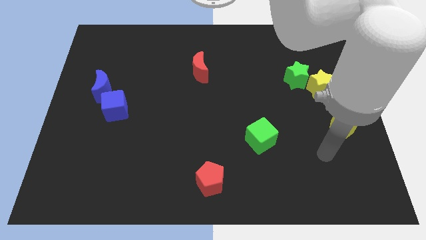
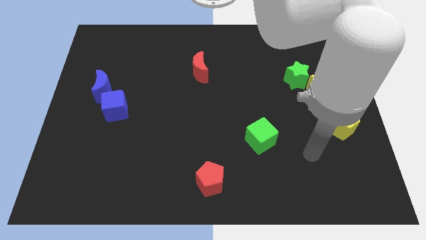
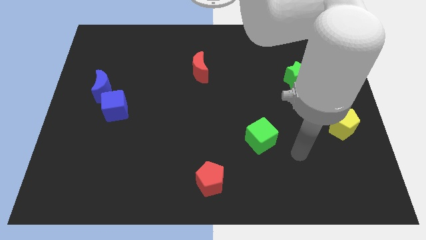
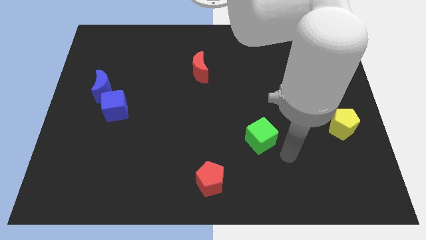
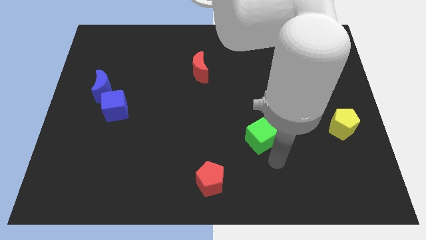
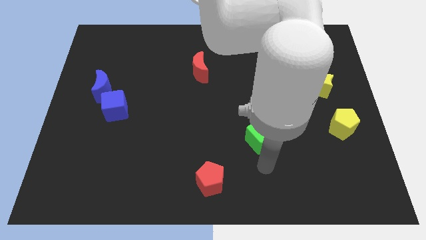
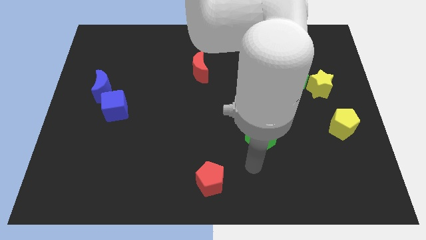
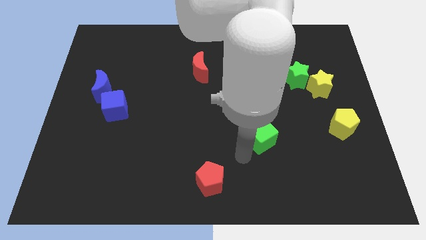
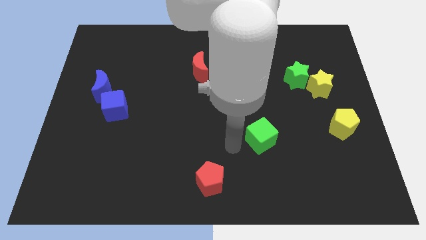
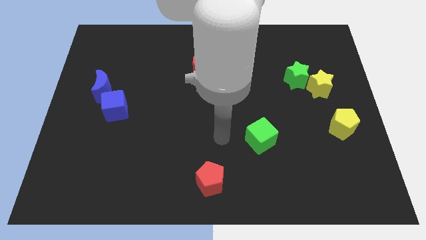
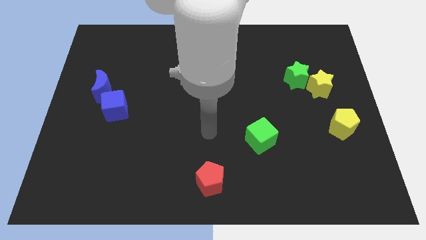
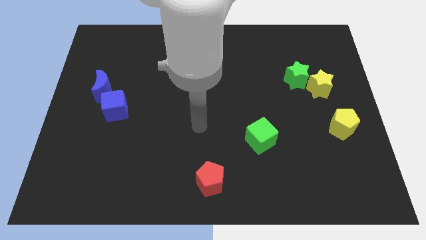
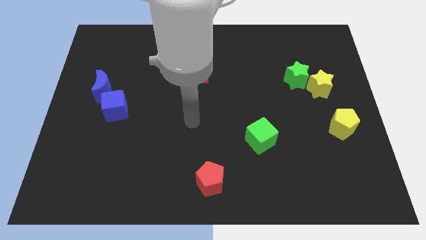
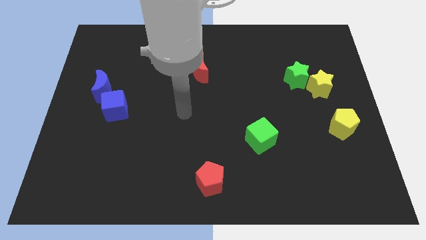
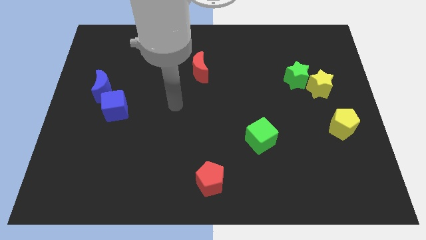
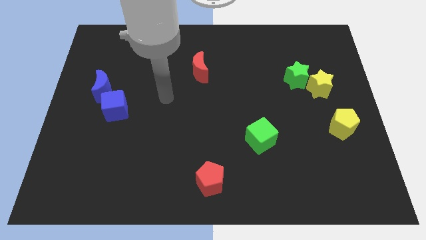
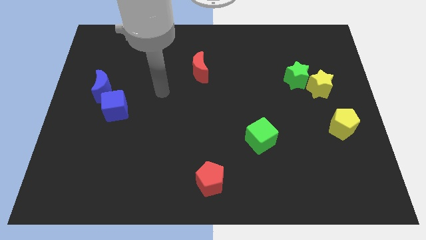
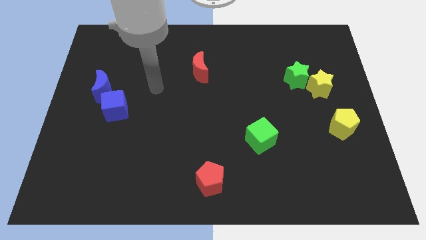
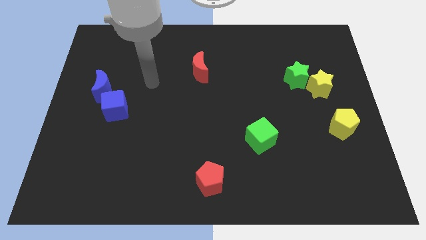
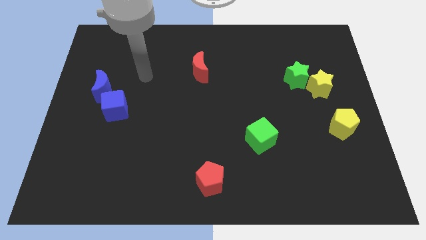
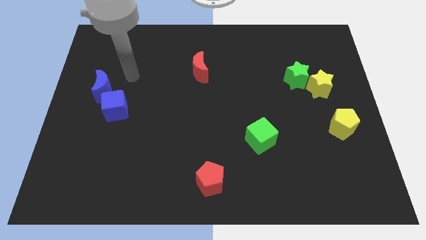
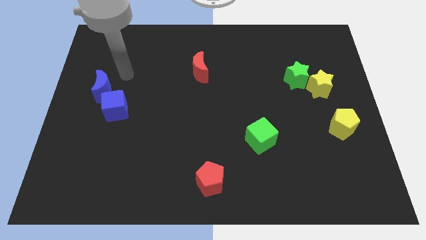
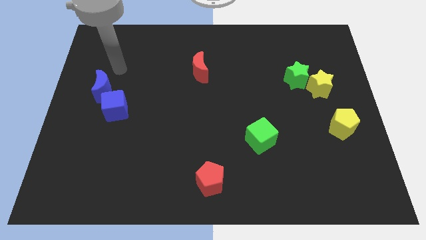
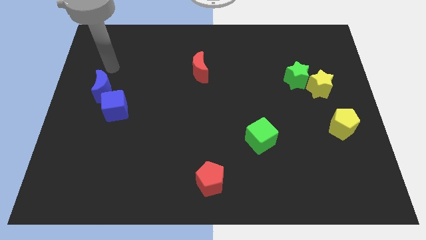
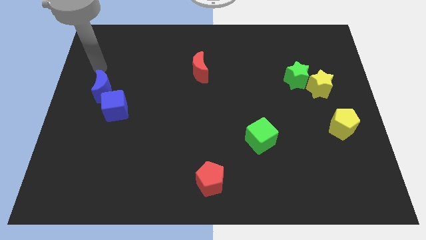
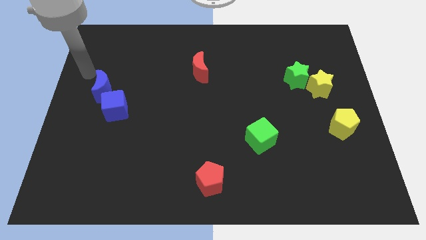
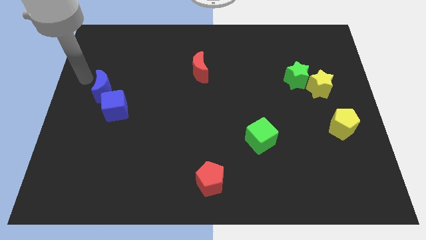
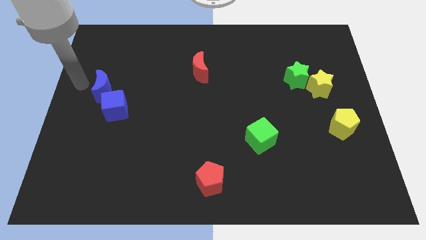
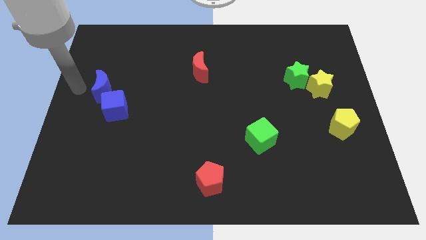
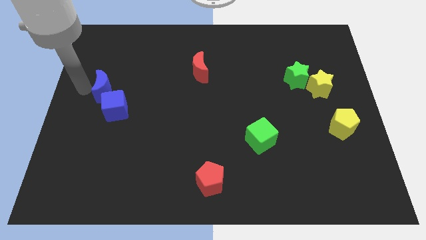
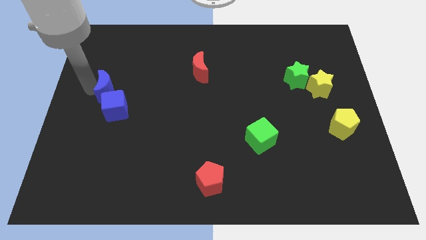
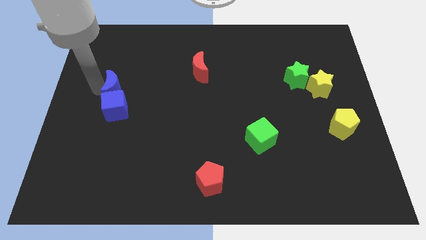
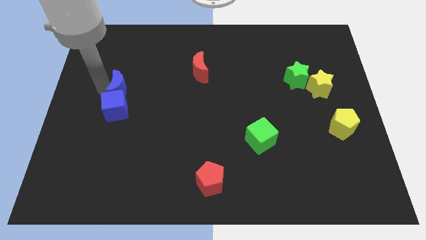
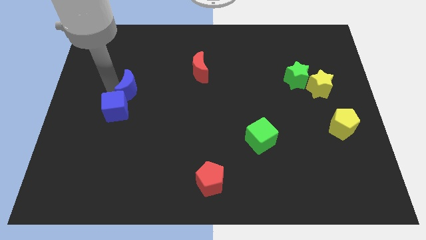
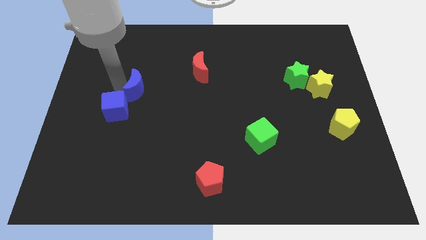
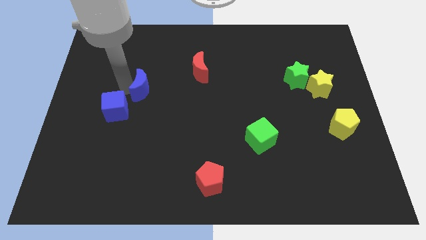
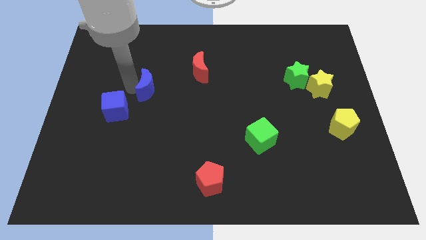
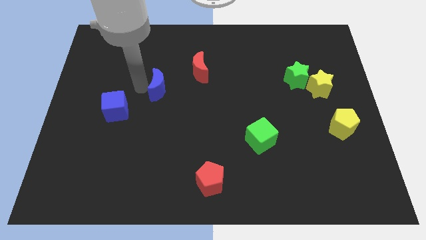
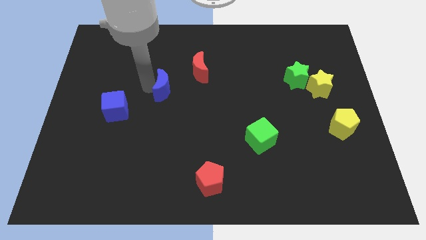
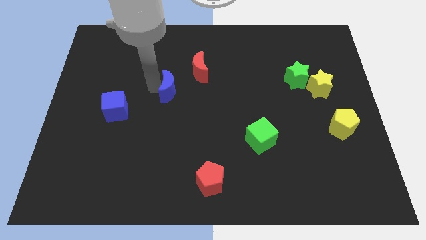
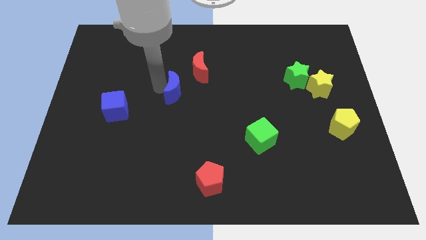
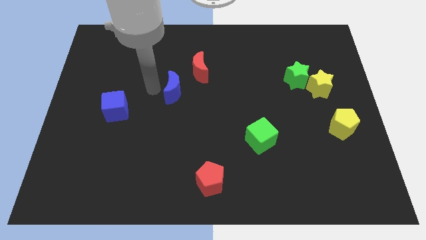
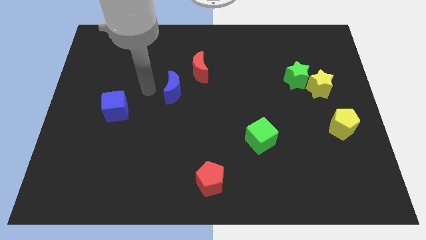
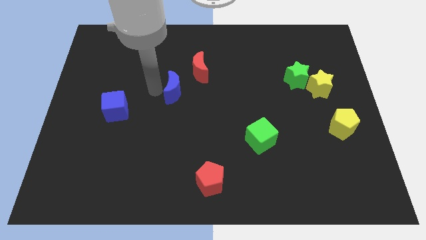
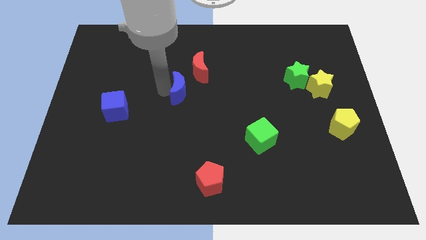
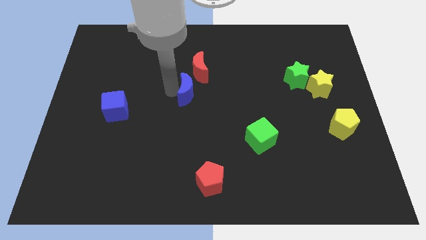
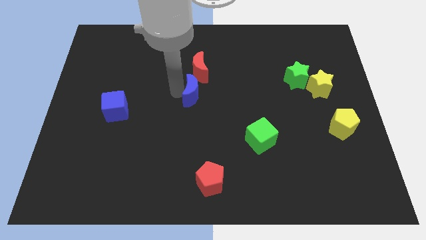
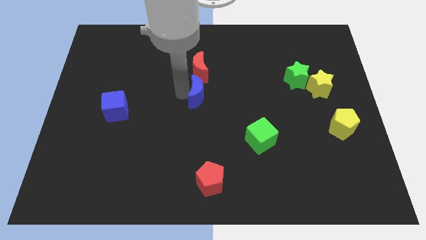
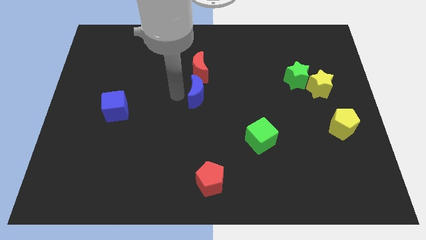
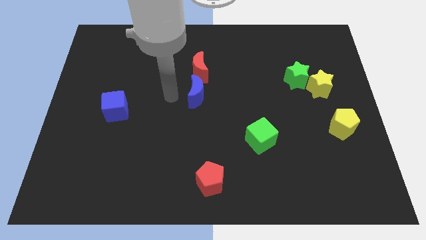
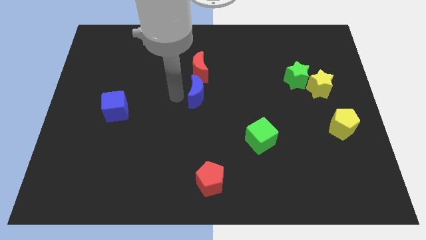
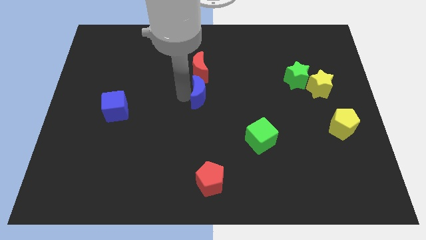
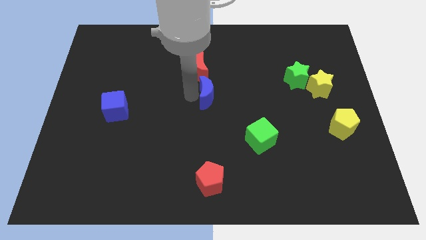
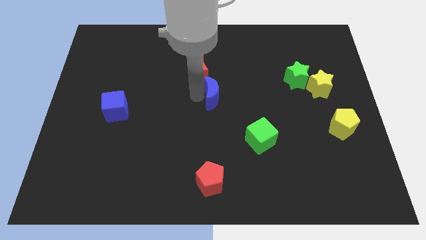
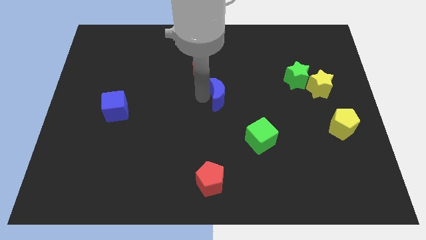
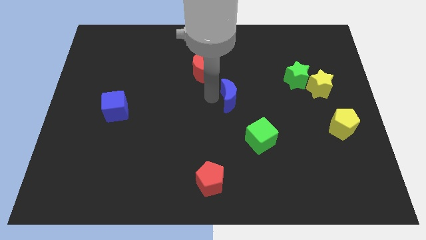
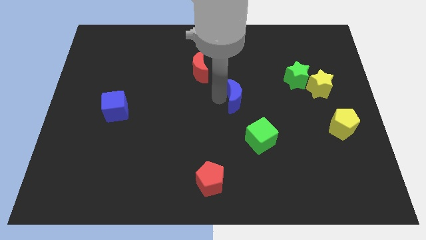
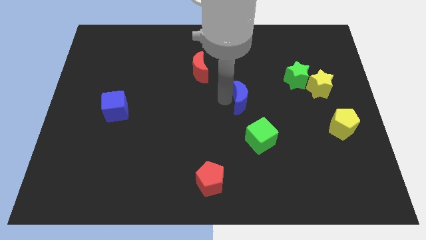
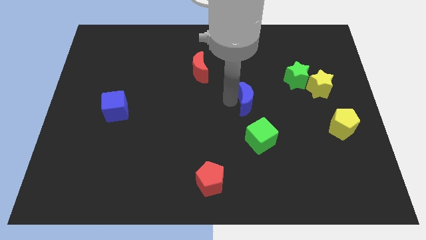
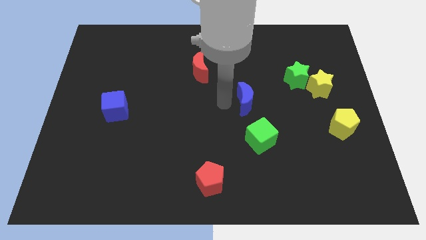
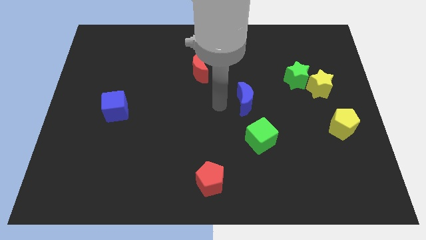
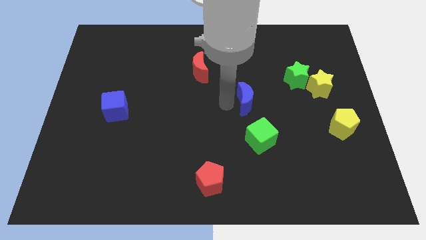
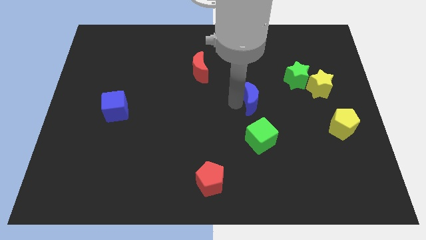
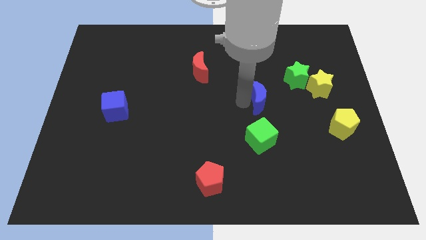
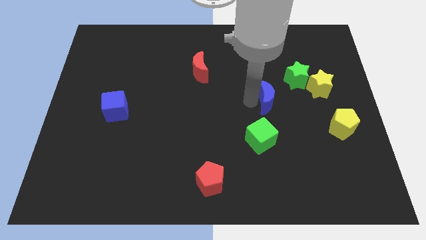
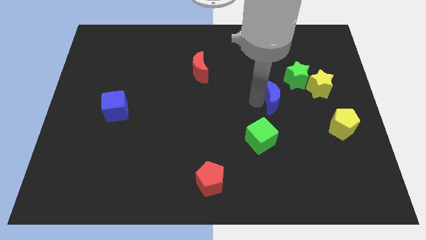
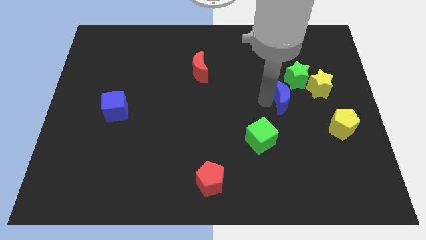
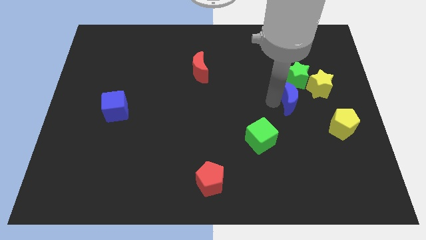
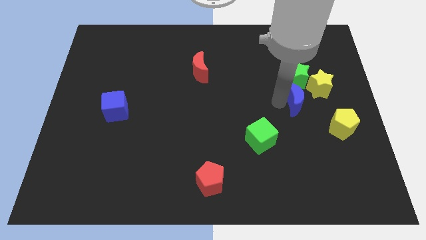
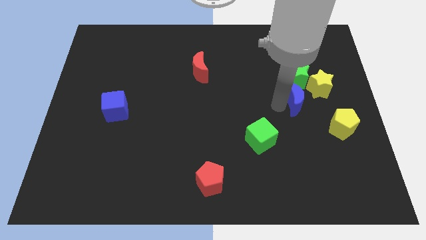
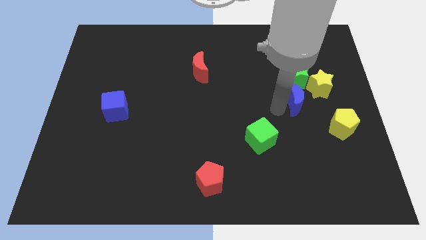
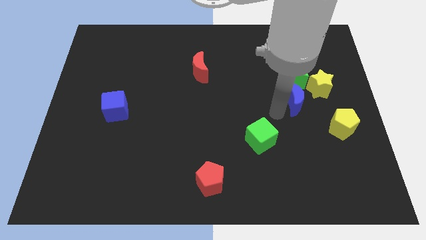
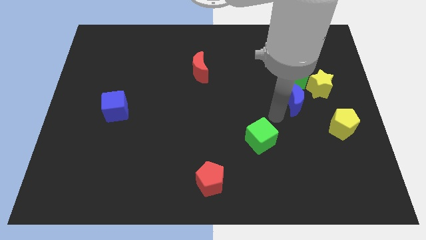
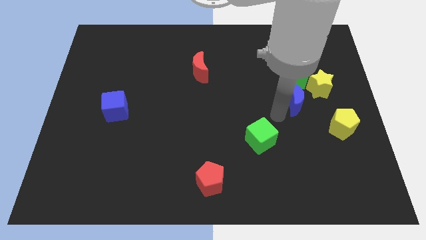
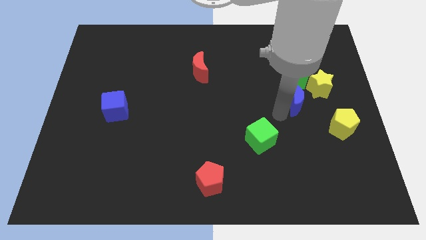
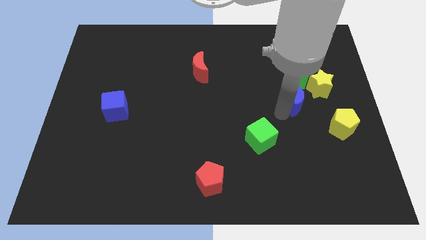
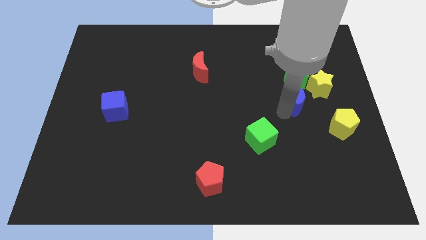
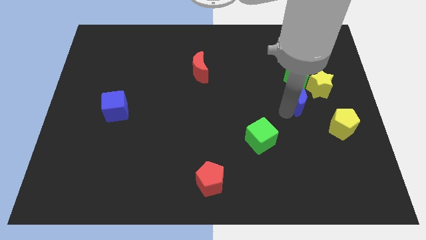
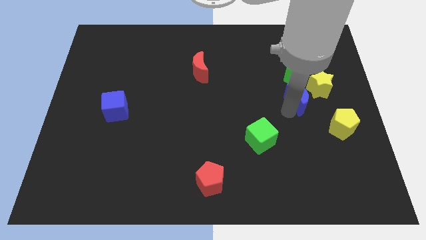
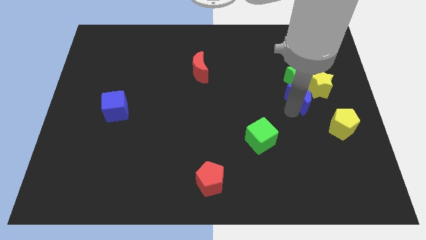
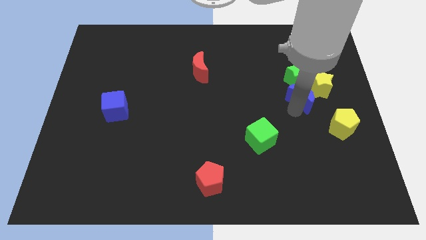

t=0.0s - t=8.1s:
slide the blue moon towards the yellow star
